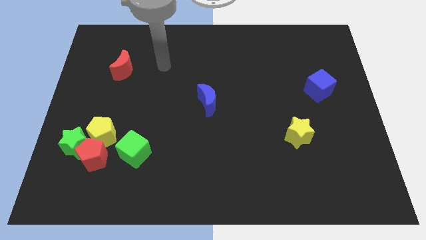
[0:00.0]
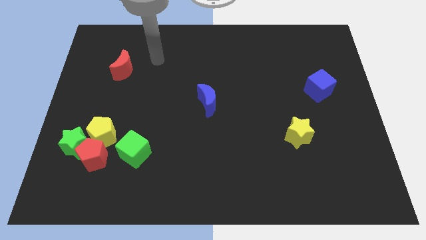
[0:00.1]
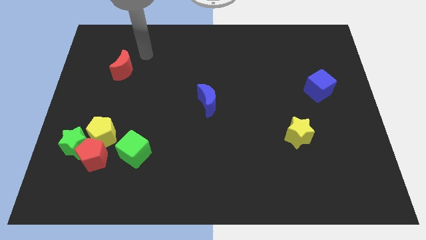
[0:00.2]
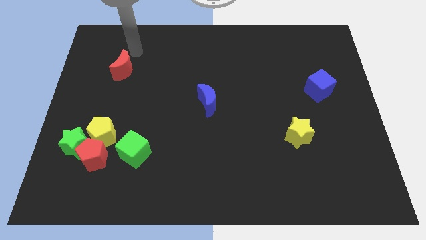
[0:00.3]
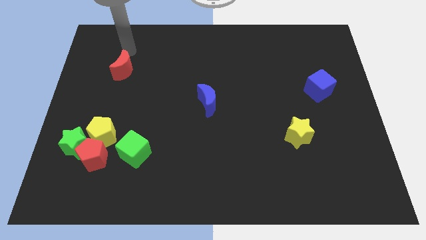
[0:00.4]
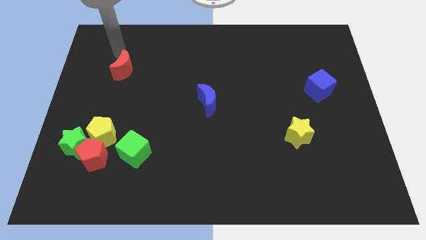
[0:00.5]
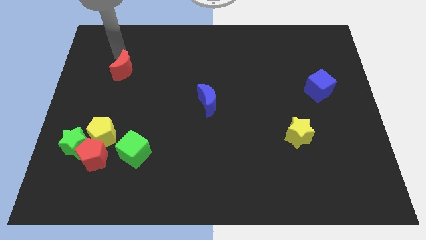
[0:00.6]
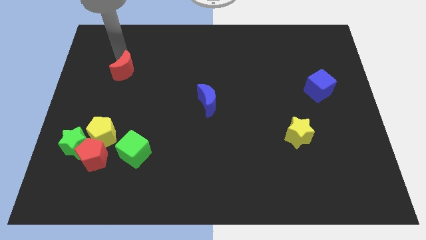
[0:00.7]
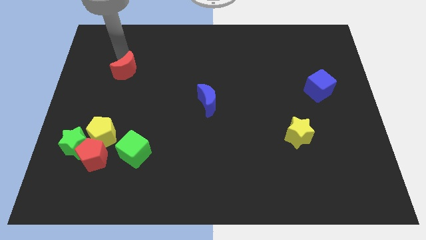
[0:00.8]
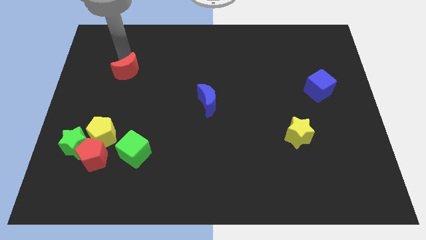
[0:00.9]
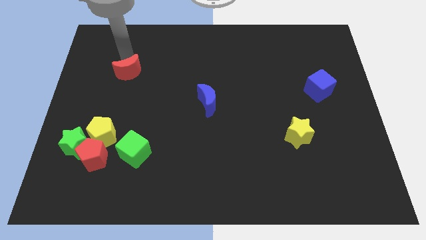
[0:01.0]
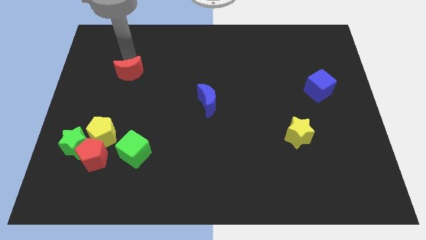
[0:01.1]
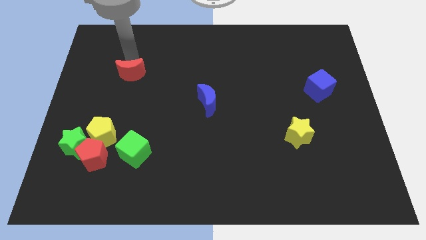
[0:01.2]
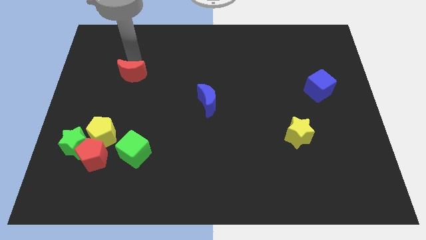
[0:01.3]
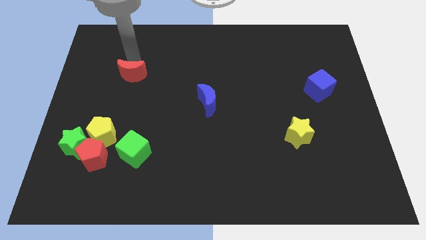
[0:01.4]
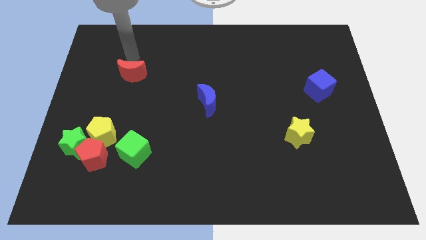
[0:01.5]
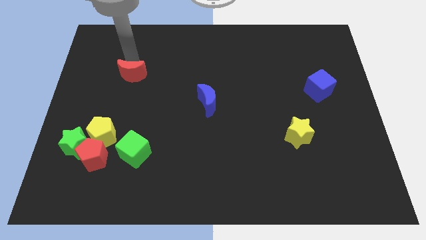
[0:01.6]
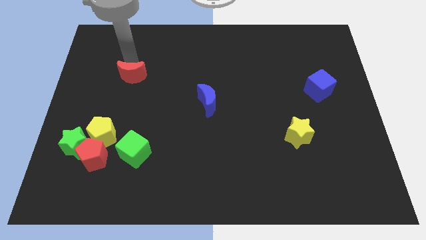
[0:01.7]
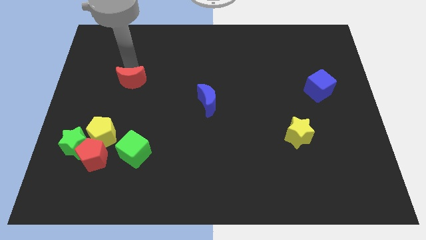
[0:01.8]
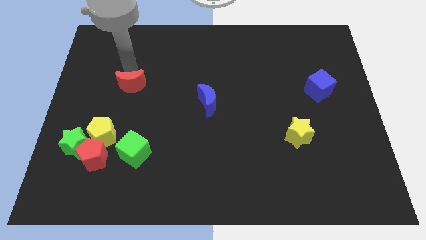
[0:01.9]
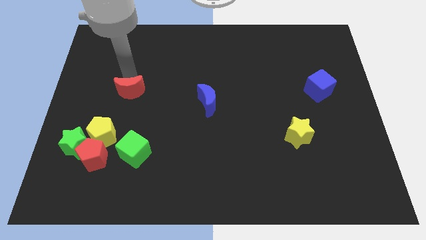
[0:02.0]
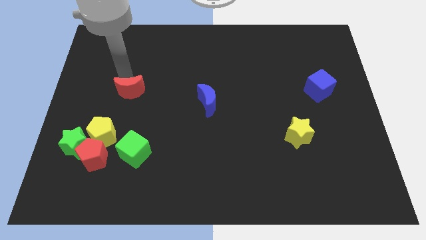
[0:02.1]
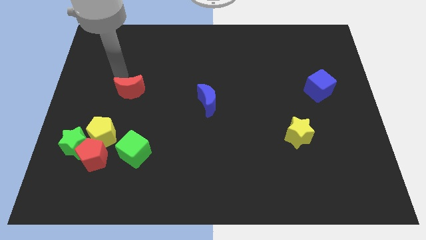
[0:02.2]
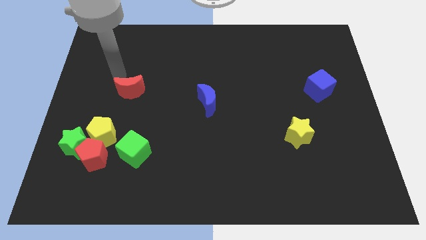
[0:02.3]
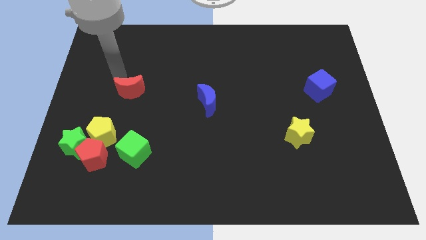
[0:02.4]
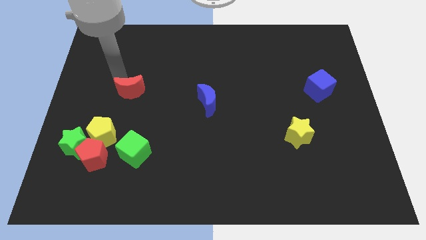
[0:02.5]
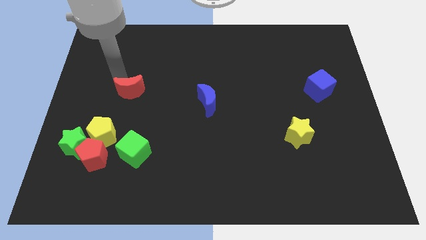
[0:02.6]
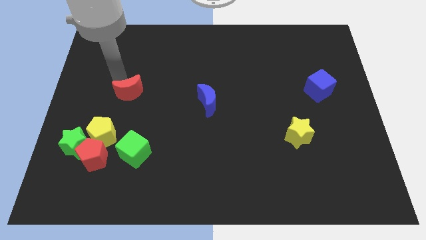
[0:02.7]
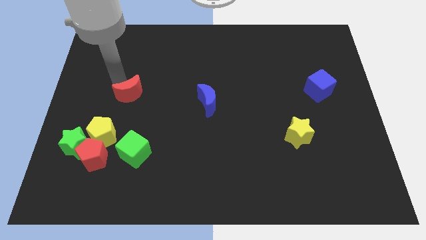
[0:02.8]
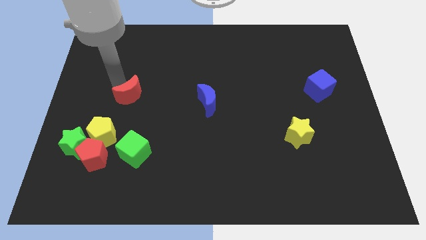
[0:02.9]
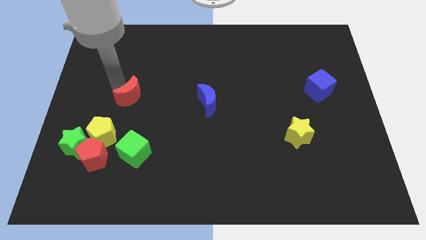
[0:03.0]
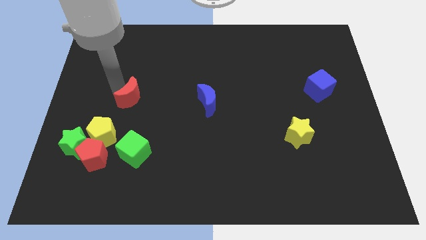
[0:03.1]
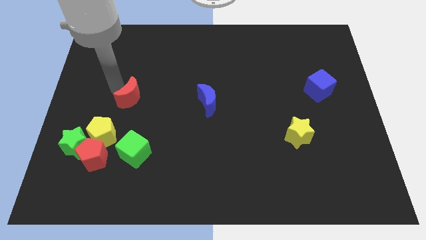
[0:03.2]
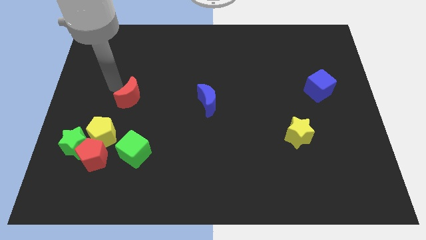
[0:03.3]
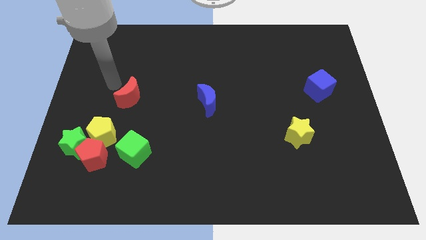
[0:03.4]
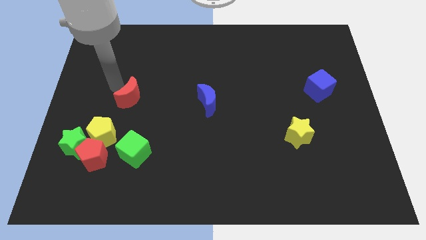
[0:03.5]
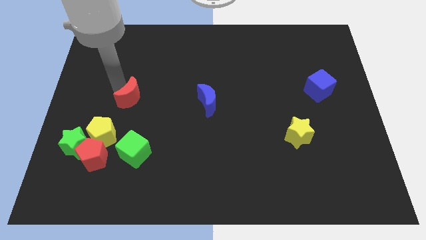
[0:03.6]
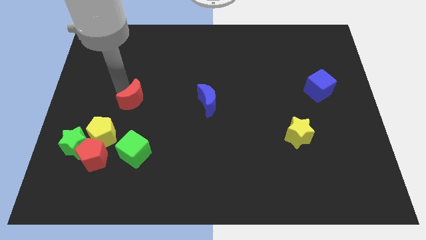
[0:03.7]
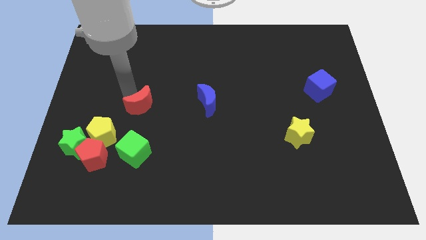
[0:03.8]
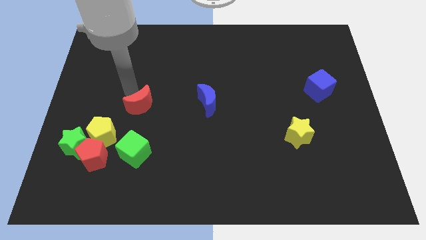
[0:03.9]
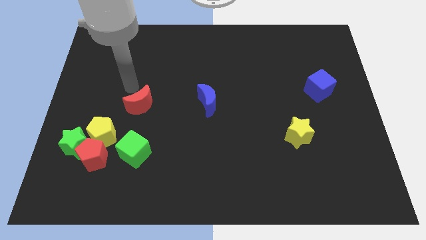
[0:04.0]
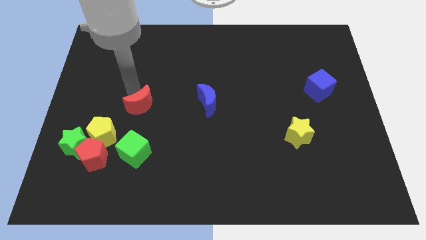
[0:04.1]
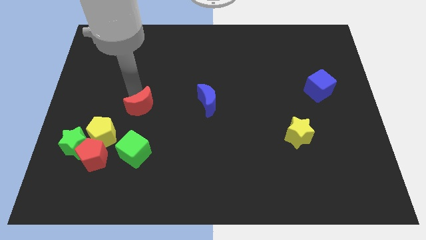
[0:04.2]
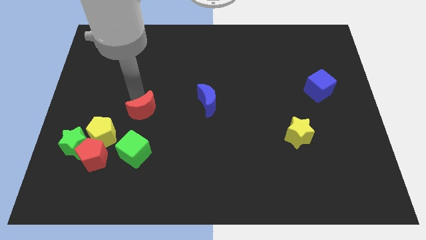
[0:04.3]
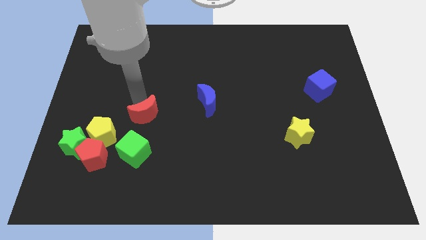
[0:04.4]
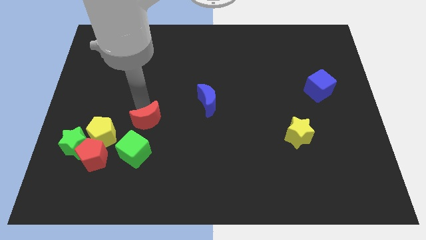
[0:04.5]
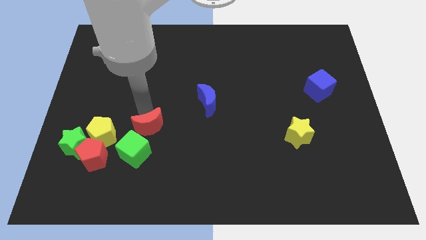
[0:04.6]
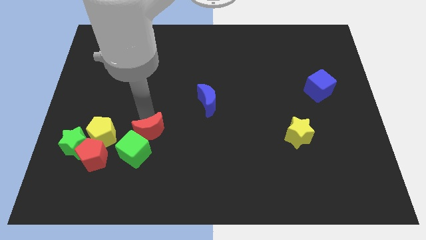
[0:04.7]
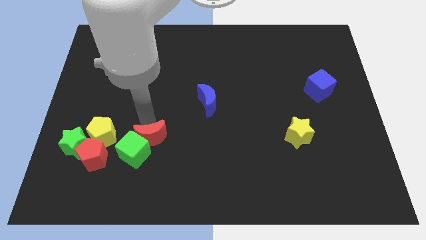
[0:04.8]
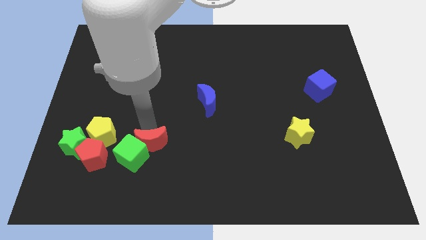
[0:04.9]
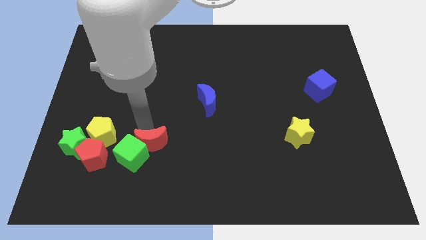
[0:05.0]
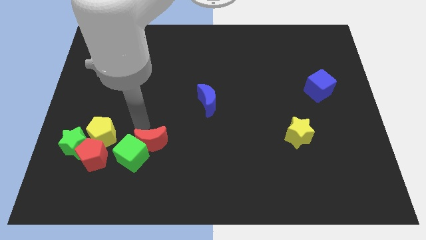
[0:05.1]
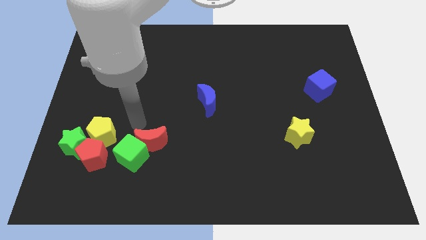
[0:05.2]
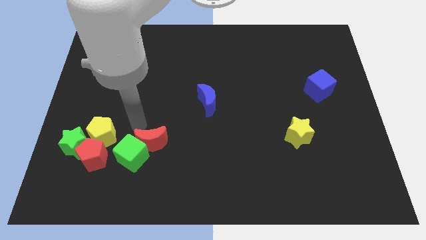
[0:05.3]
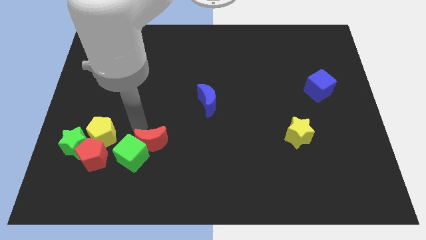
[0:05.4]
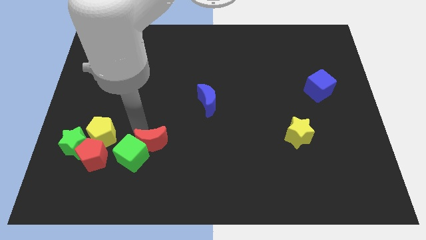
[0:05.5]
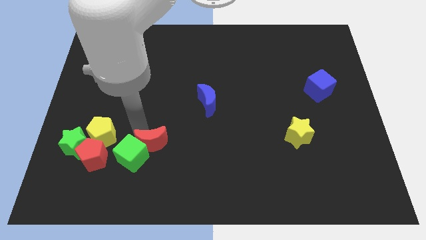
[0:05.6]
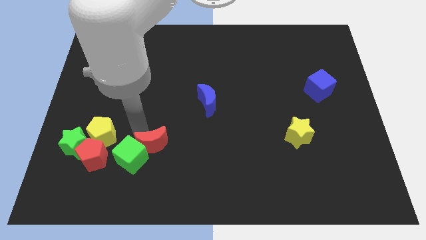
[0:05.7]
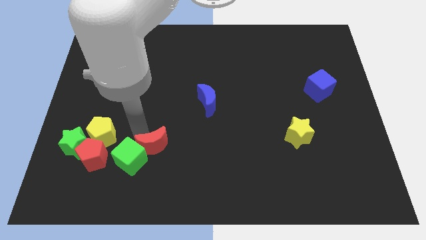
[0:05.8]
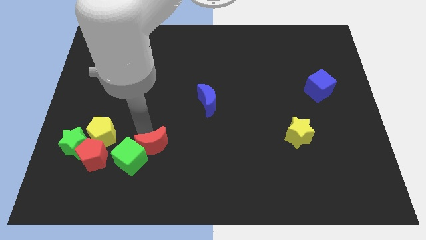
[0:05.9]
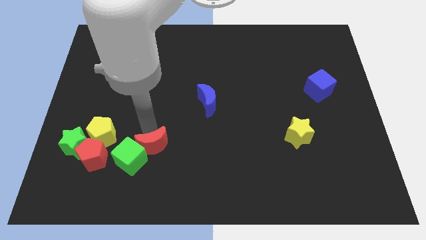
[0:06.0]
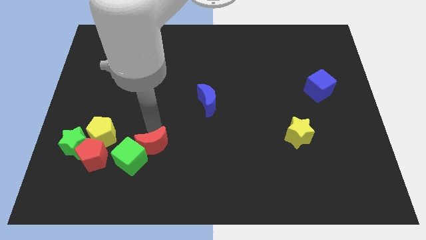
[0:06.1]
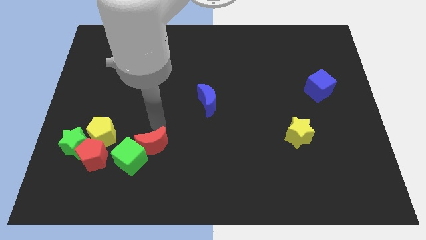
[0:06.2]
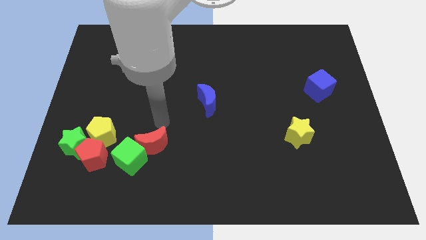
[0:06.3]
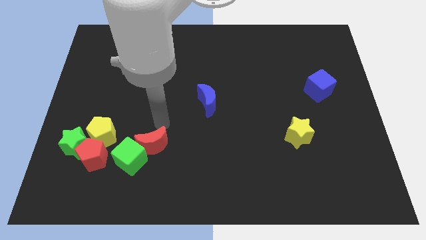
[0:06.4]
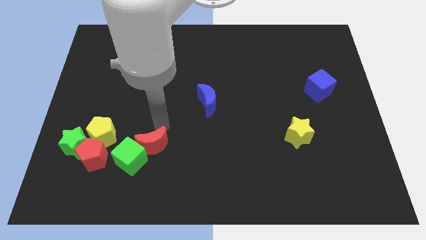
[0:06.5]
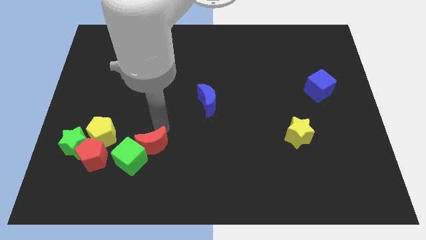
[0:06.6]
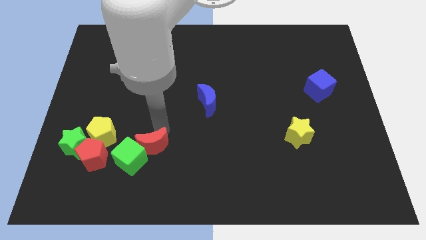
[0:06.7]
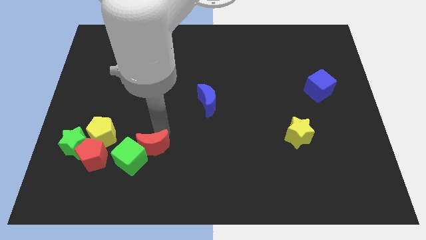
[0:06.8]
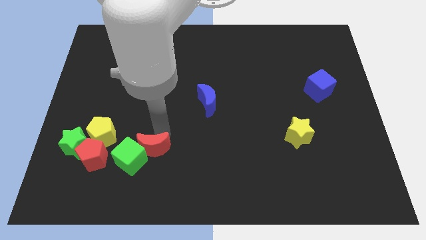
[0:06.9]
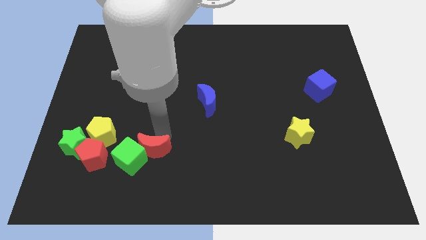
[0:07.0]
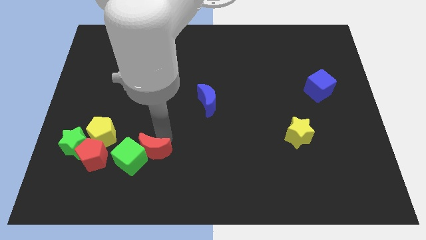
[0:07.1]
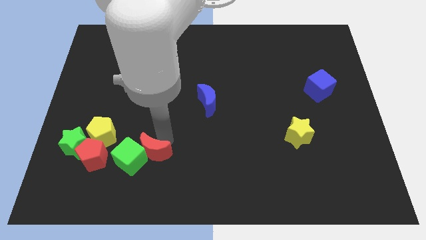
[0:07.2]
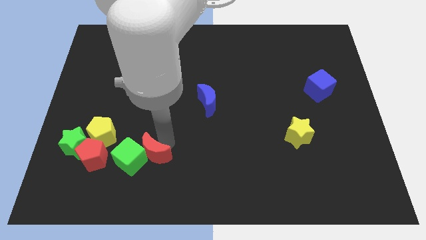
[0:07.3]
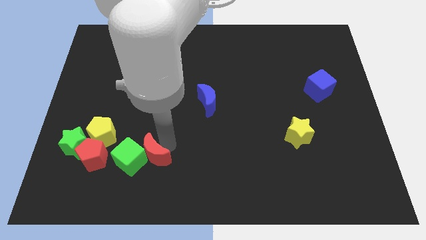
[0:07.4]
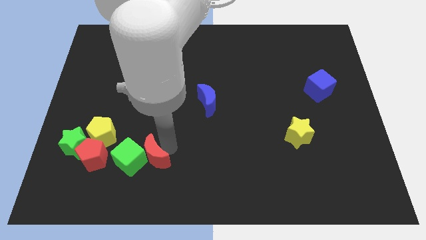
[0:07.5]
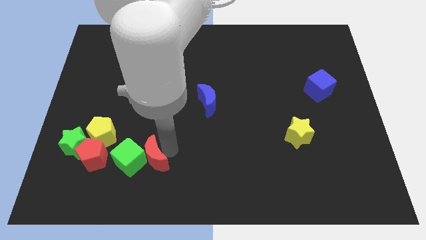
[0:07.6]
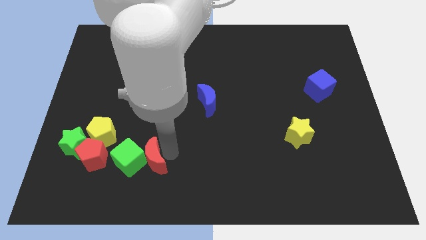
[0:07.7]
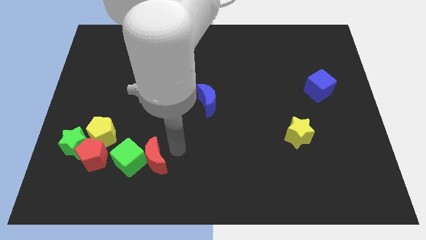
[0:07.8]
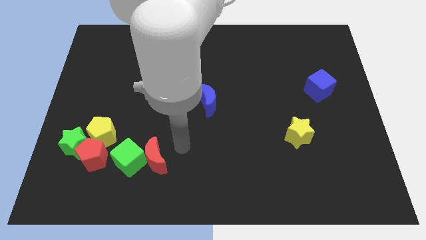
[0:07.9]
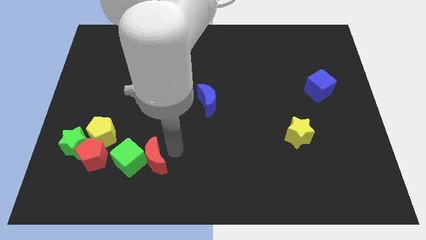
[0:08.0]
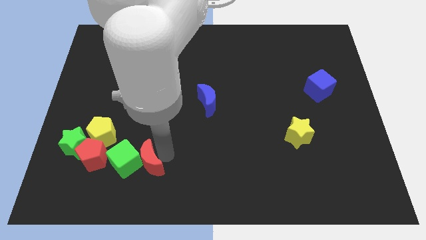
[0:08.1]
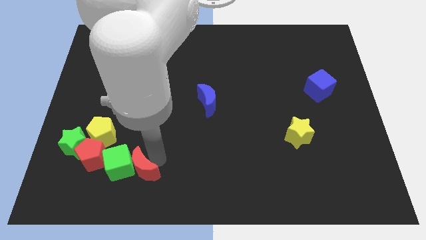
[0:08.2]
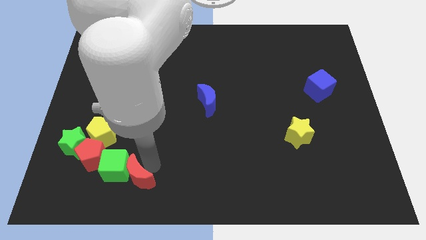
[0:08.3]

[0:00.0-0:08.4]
push the red moon to the bottom right side of the red pentagon

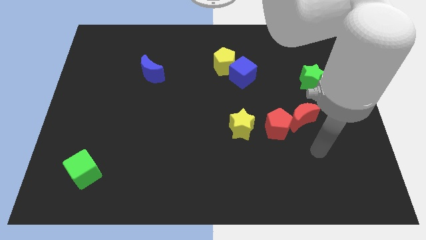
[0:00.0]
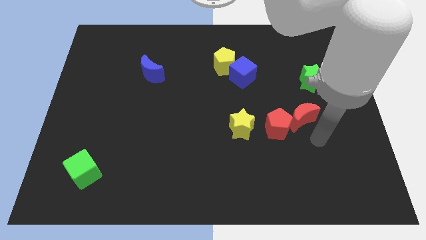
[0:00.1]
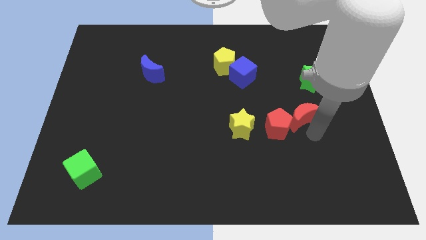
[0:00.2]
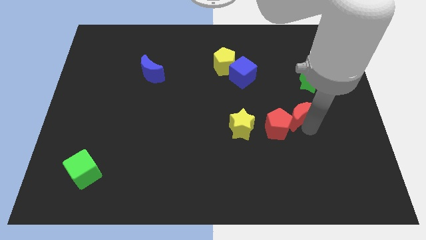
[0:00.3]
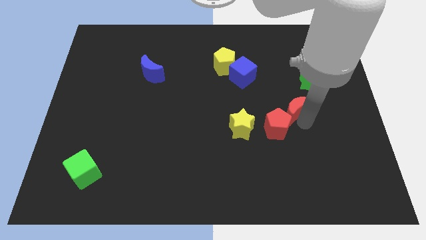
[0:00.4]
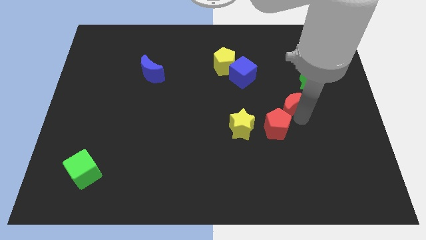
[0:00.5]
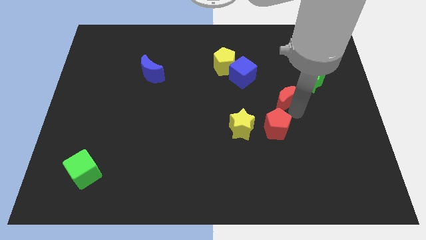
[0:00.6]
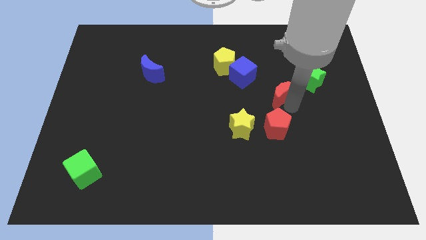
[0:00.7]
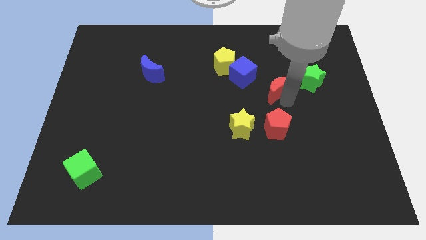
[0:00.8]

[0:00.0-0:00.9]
put the red moon to the left of the green star
